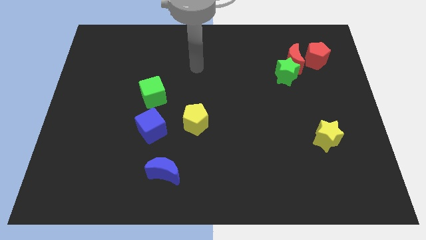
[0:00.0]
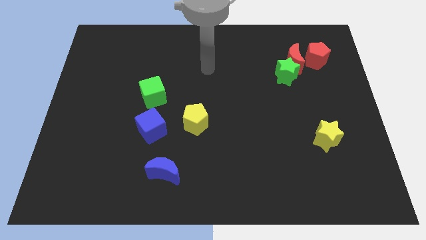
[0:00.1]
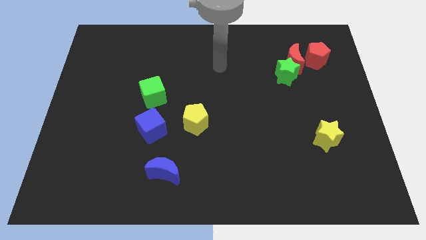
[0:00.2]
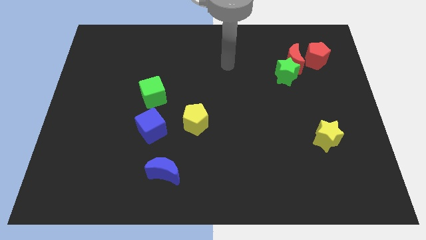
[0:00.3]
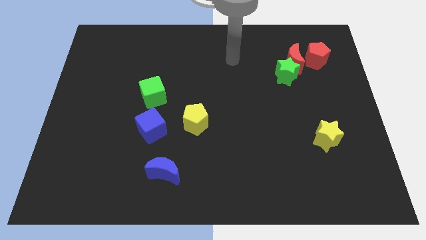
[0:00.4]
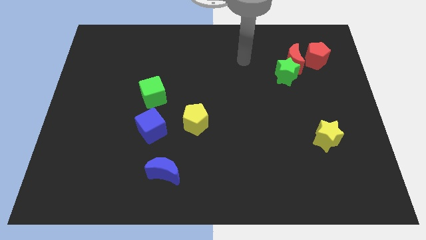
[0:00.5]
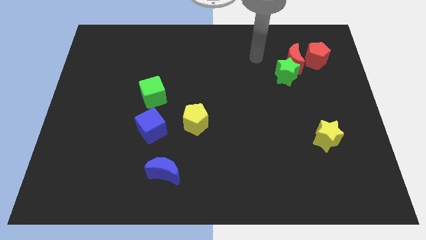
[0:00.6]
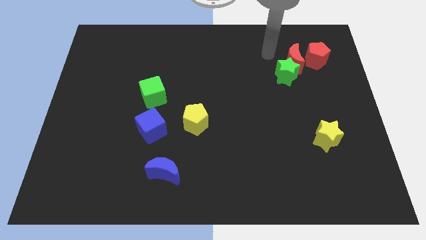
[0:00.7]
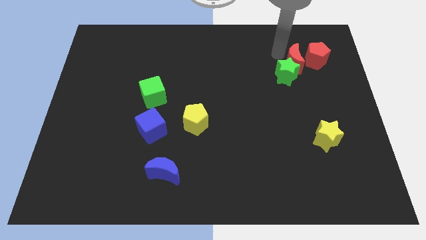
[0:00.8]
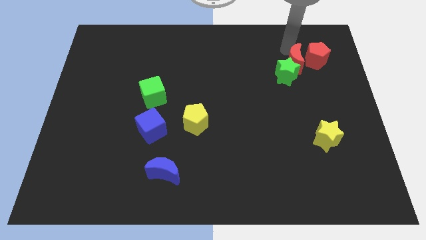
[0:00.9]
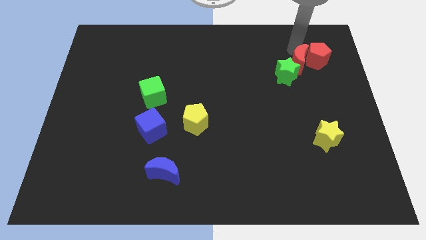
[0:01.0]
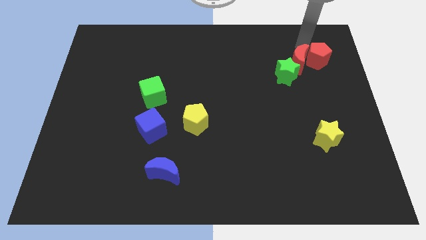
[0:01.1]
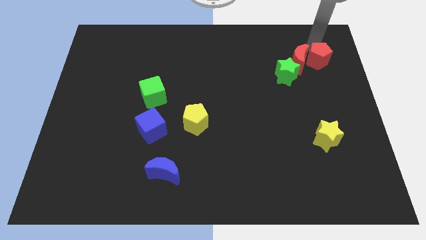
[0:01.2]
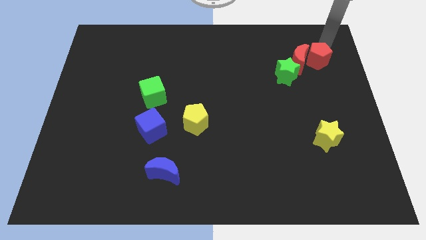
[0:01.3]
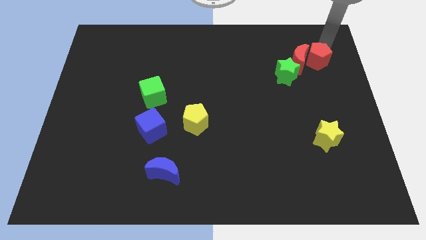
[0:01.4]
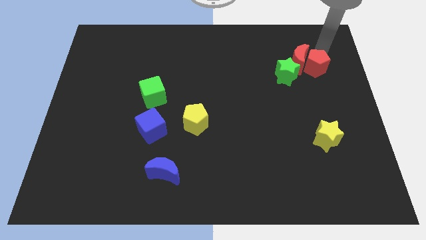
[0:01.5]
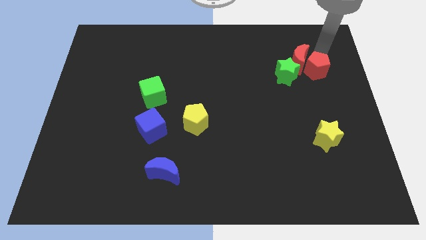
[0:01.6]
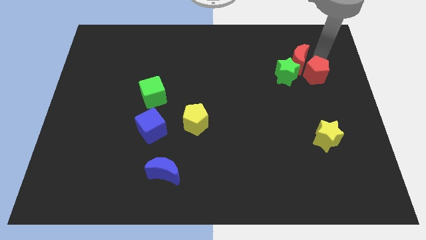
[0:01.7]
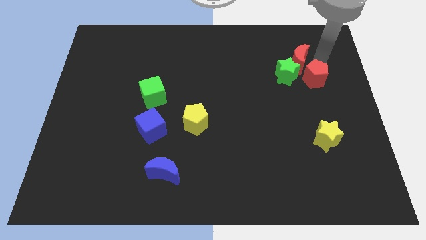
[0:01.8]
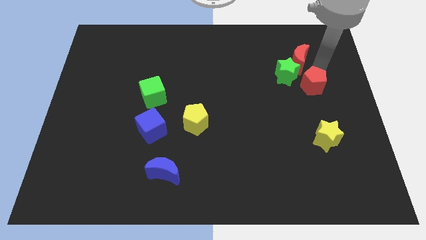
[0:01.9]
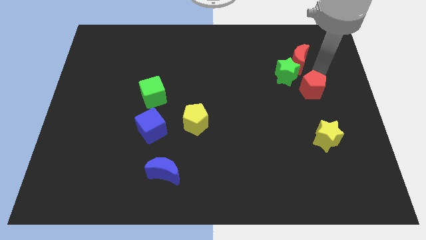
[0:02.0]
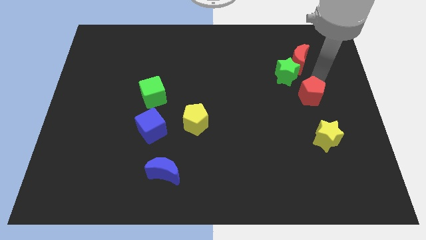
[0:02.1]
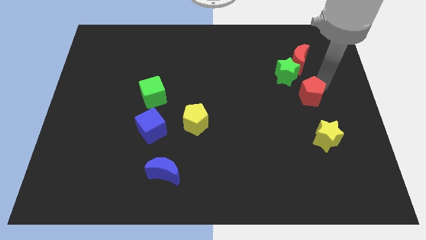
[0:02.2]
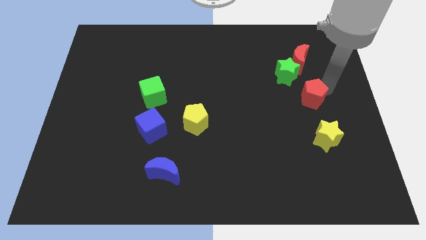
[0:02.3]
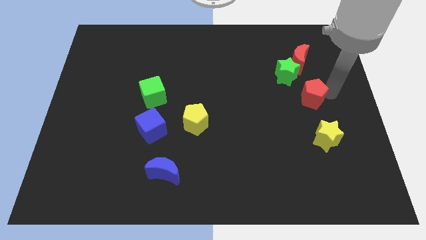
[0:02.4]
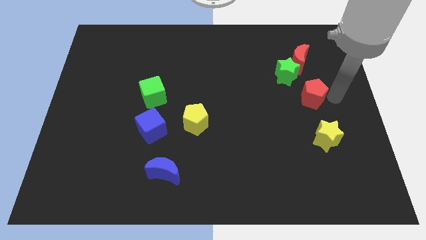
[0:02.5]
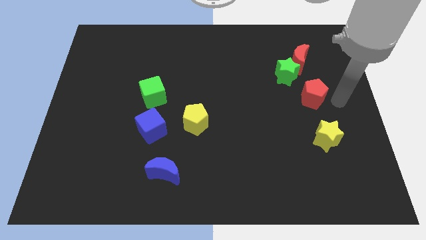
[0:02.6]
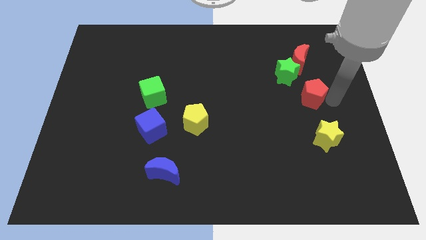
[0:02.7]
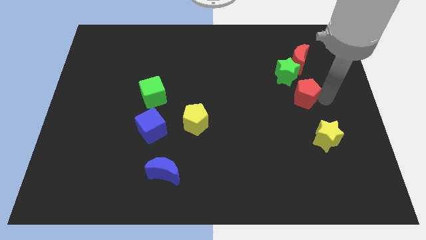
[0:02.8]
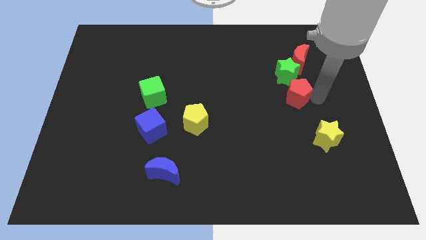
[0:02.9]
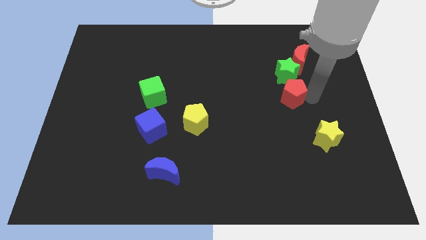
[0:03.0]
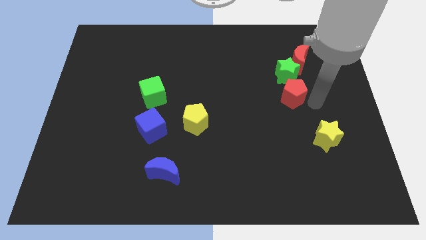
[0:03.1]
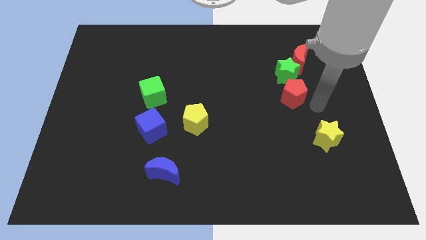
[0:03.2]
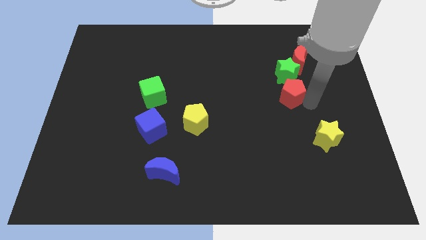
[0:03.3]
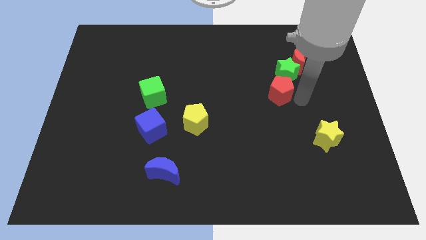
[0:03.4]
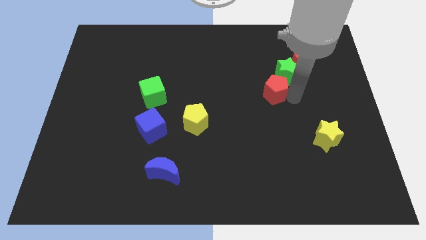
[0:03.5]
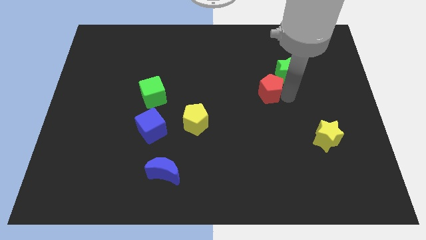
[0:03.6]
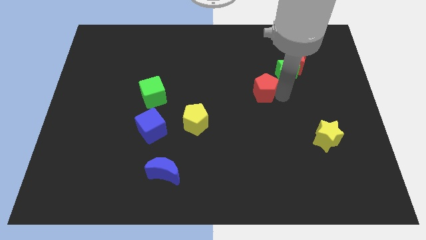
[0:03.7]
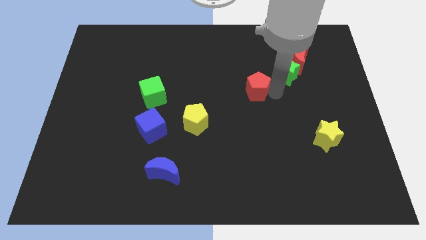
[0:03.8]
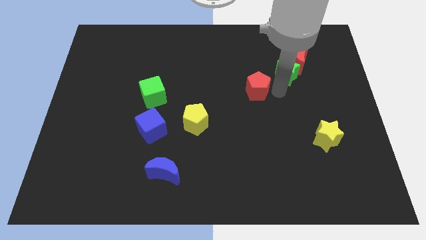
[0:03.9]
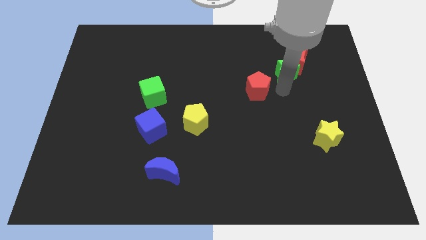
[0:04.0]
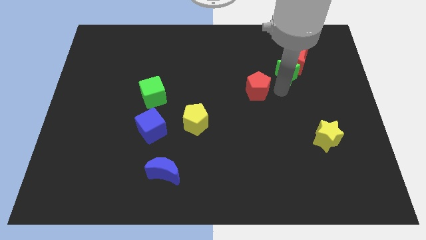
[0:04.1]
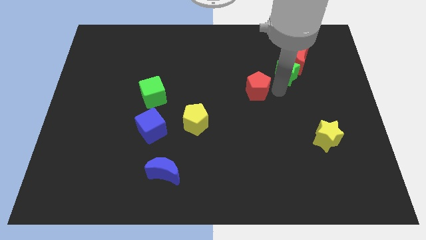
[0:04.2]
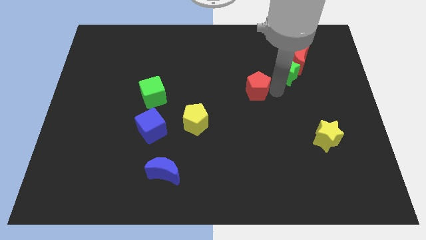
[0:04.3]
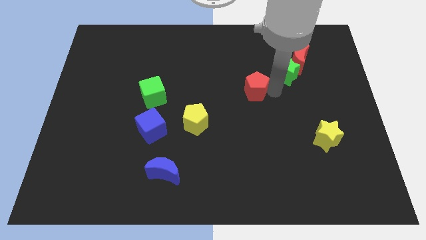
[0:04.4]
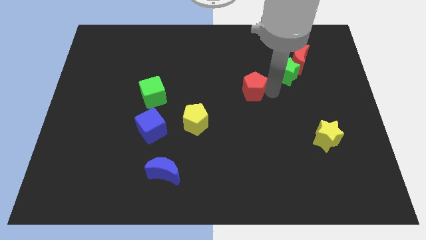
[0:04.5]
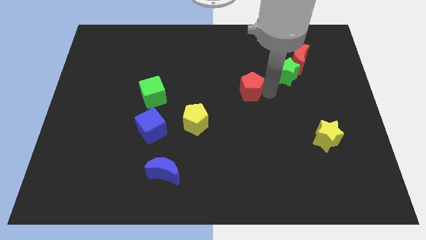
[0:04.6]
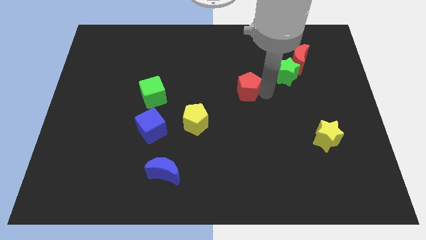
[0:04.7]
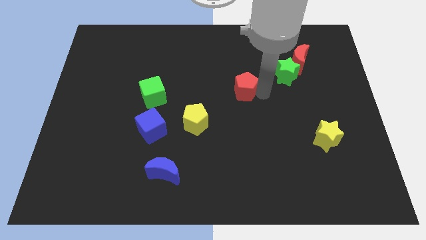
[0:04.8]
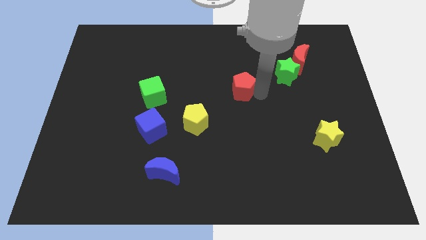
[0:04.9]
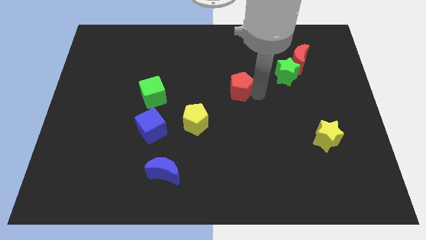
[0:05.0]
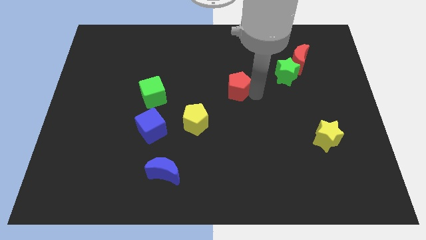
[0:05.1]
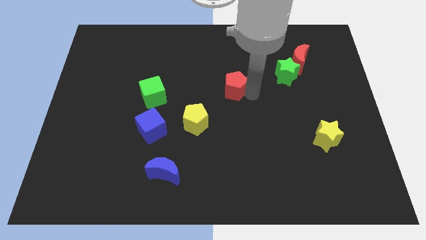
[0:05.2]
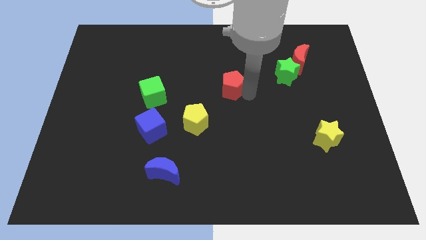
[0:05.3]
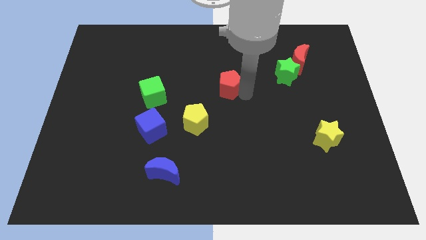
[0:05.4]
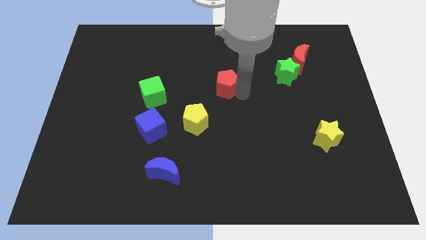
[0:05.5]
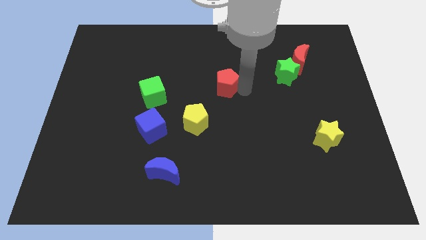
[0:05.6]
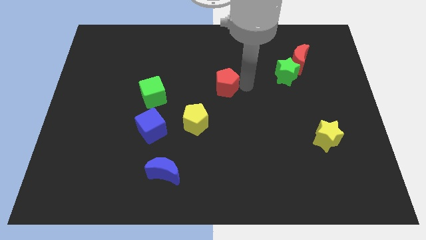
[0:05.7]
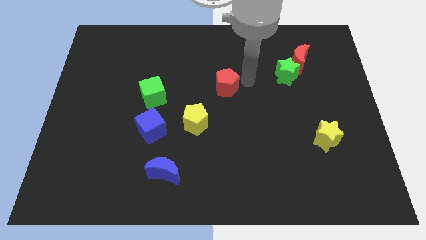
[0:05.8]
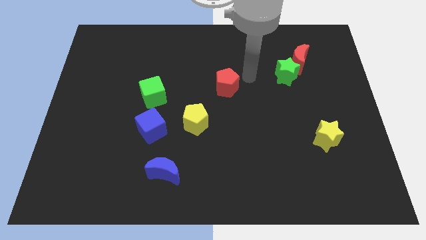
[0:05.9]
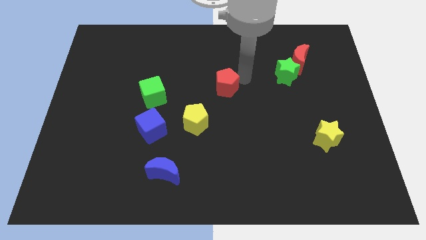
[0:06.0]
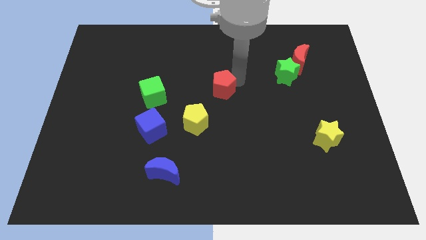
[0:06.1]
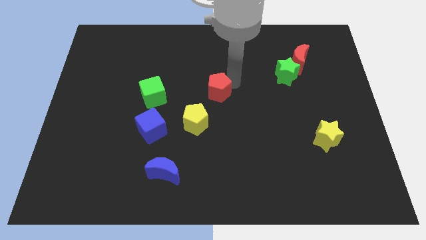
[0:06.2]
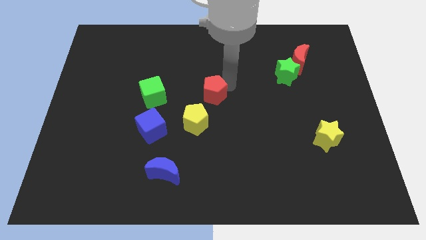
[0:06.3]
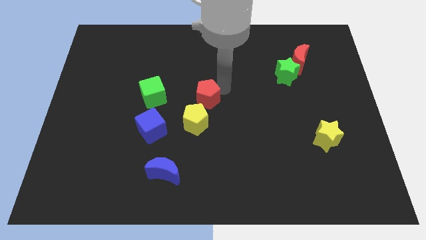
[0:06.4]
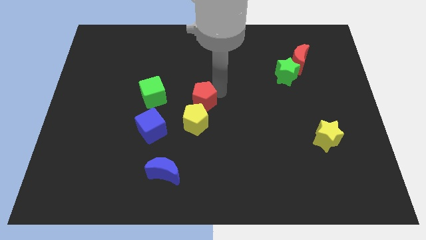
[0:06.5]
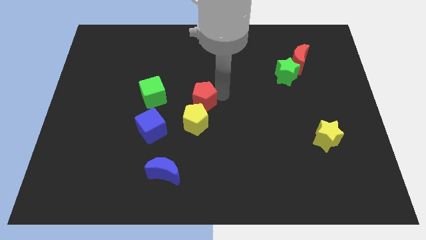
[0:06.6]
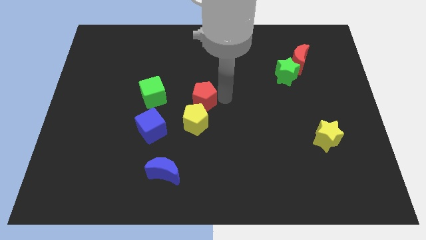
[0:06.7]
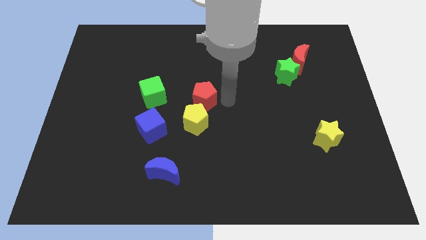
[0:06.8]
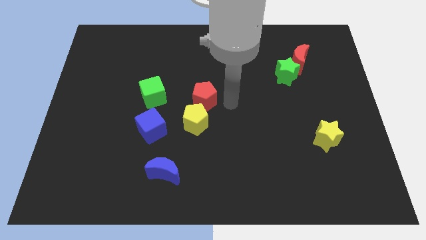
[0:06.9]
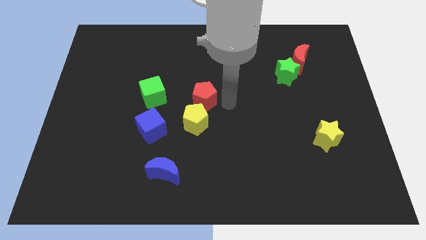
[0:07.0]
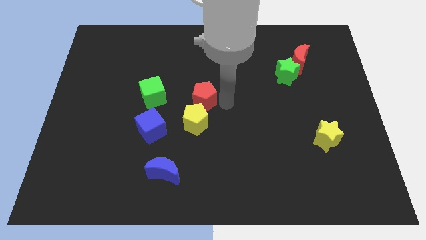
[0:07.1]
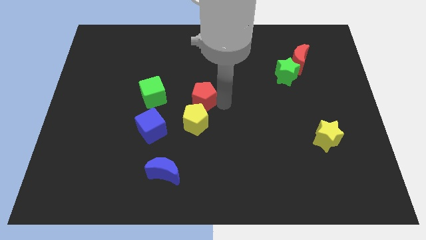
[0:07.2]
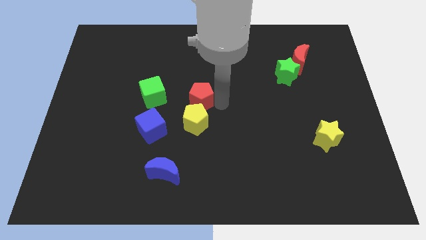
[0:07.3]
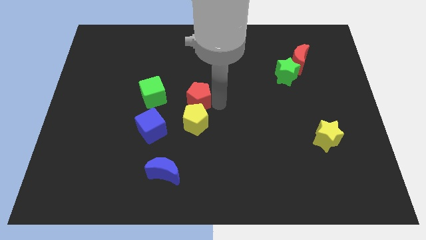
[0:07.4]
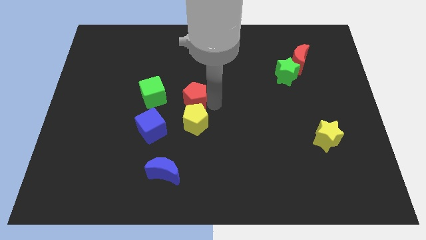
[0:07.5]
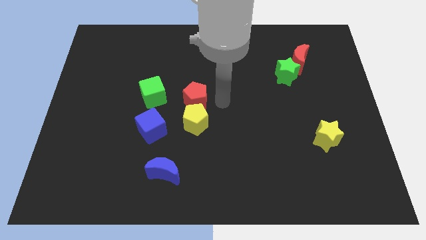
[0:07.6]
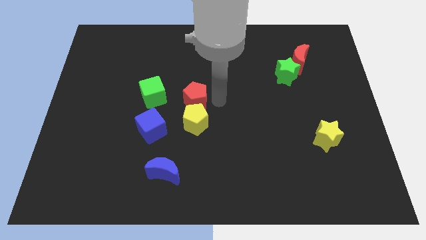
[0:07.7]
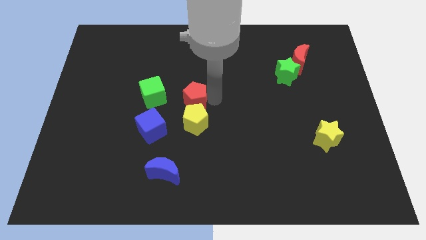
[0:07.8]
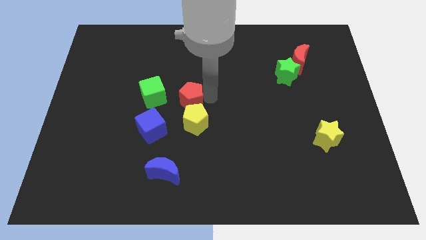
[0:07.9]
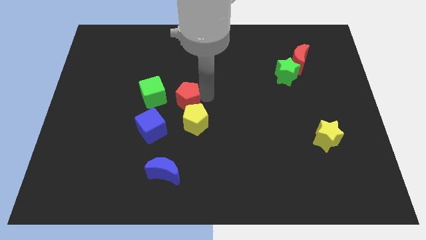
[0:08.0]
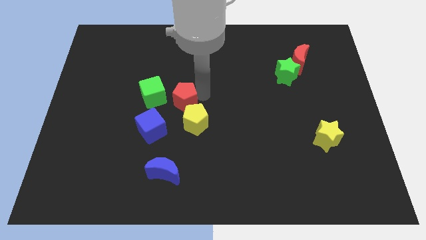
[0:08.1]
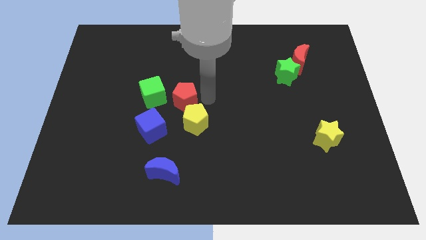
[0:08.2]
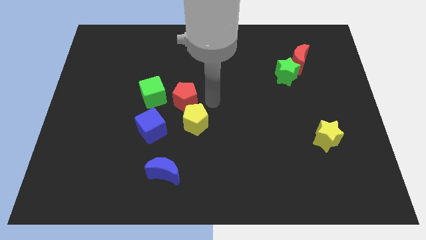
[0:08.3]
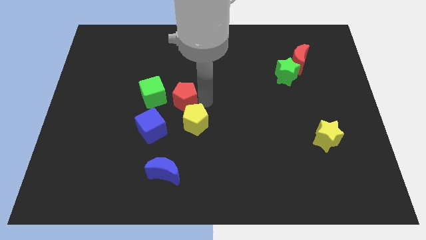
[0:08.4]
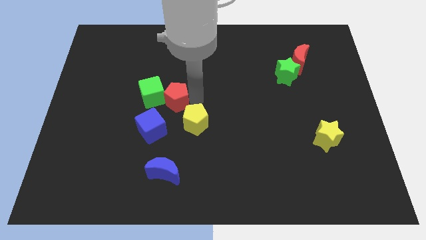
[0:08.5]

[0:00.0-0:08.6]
slide the red pentagon to the green cube
